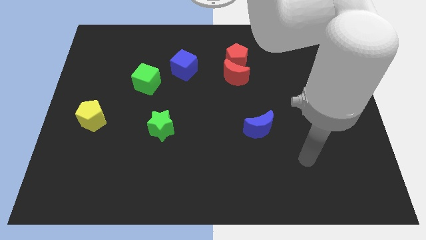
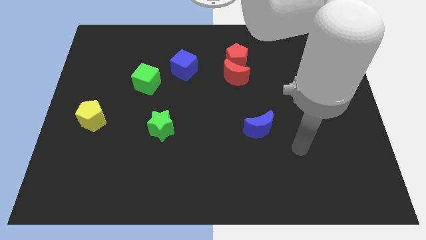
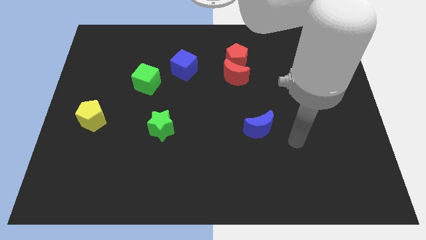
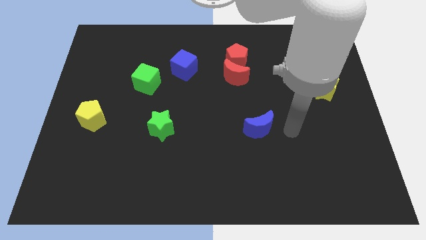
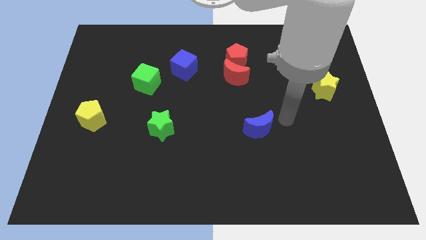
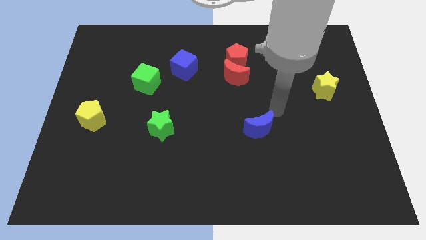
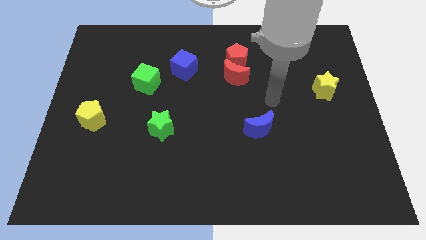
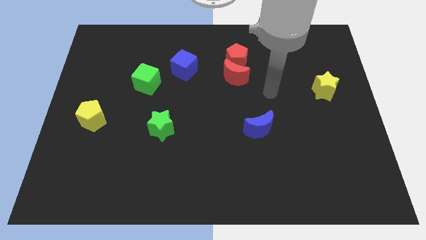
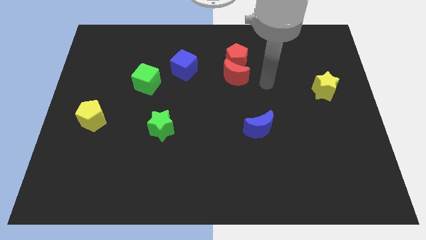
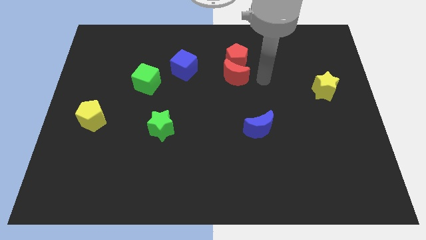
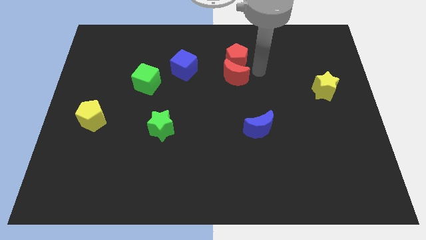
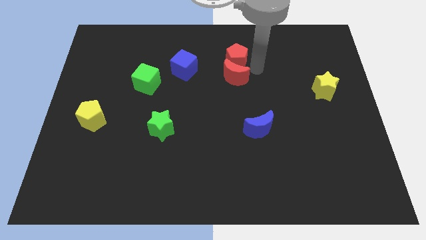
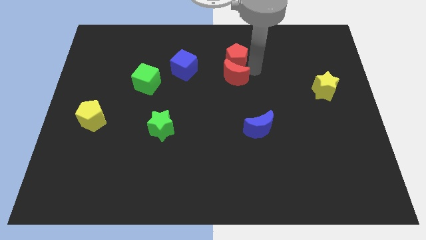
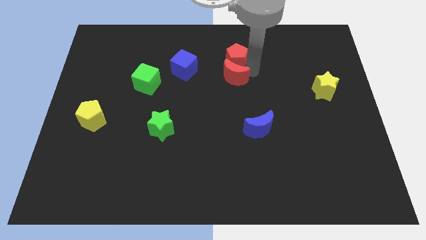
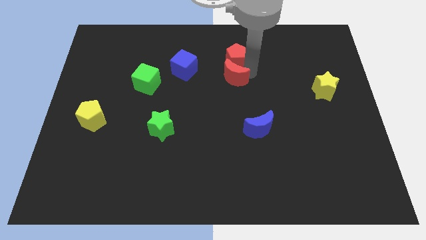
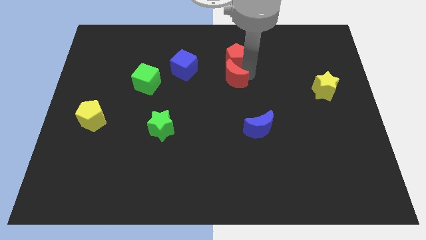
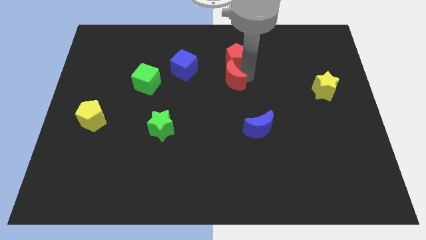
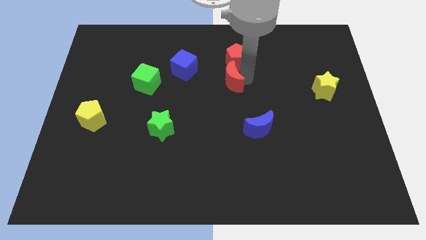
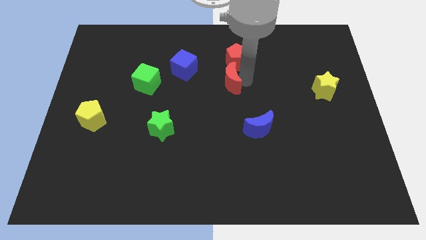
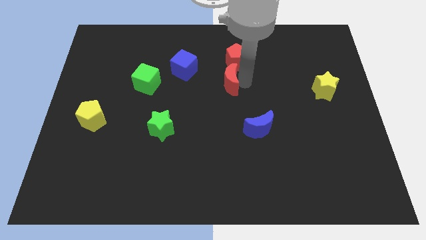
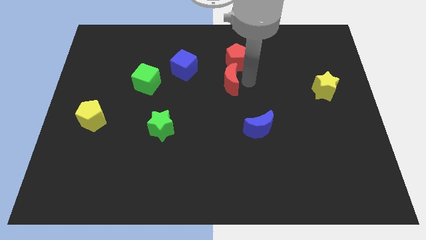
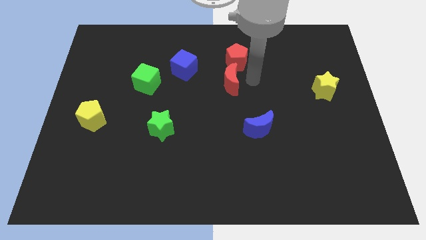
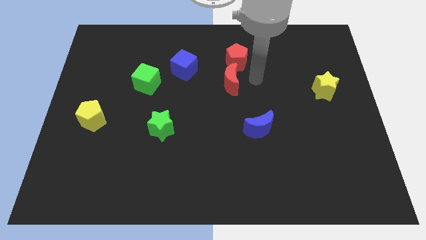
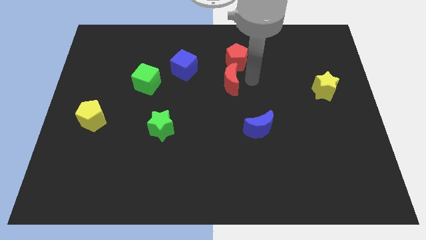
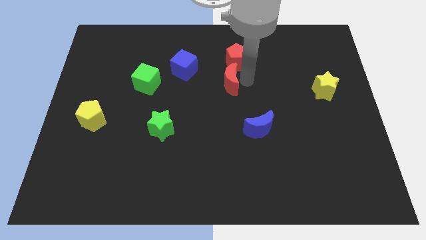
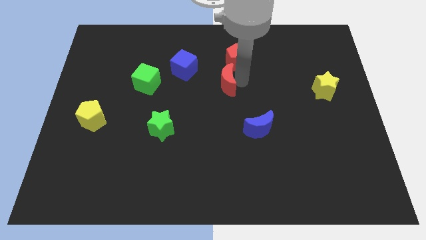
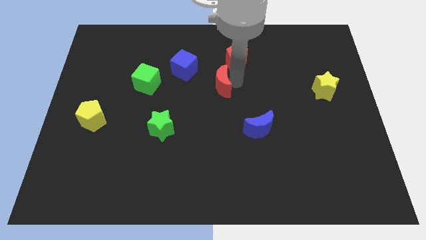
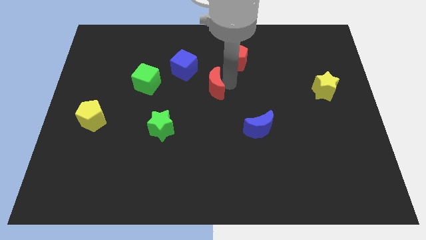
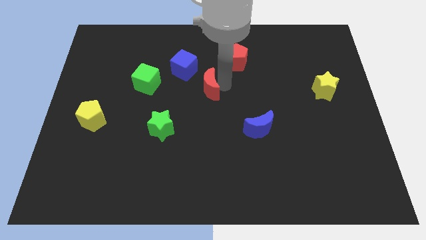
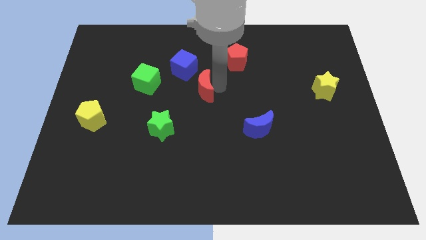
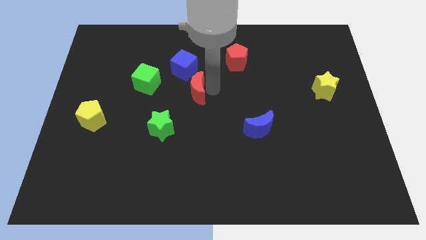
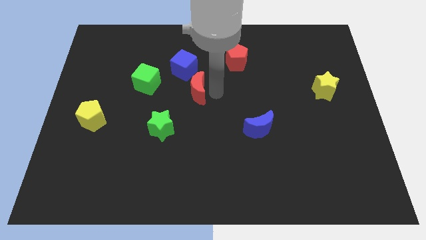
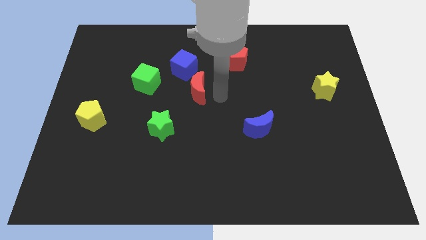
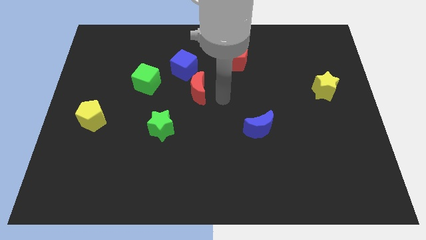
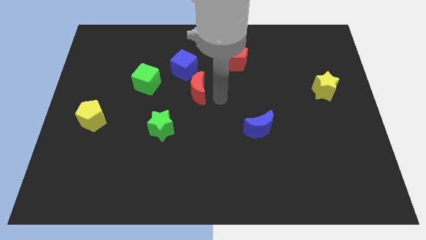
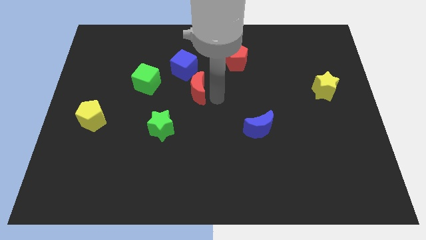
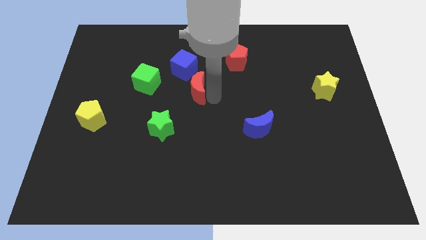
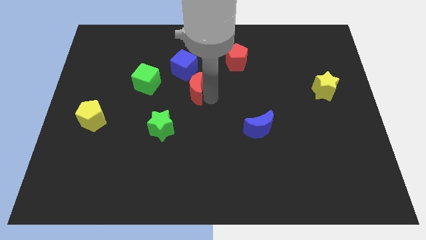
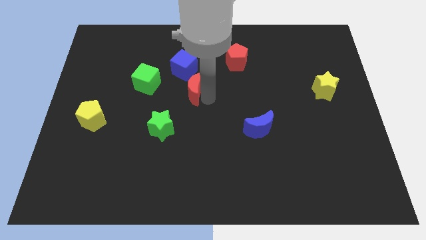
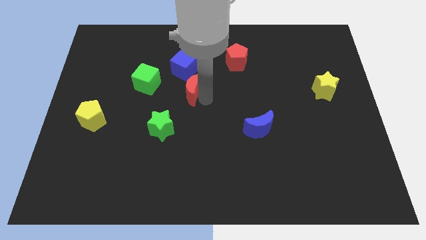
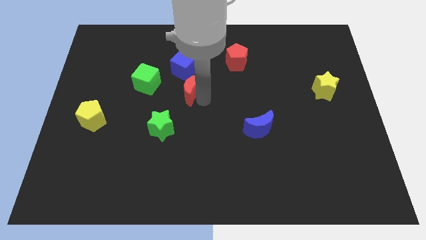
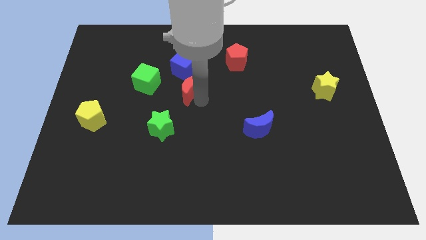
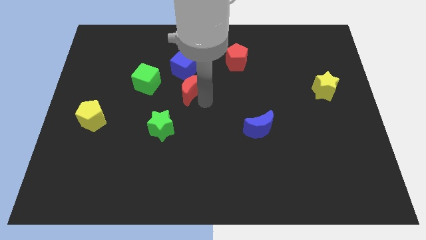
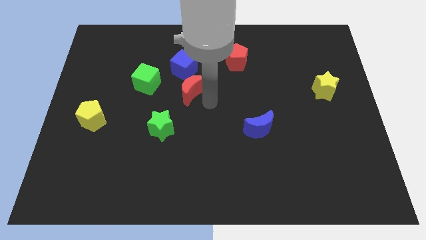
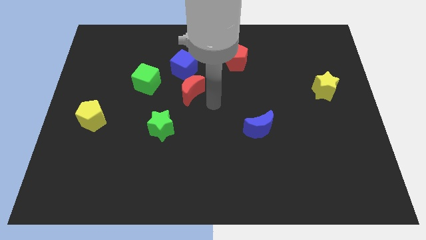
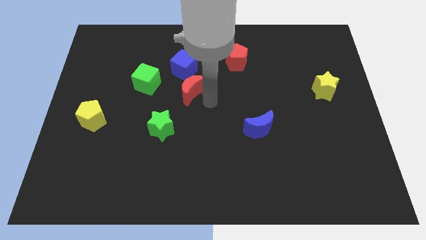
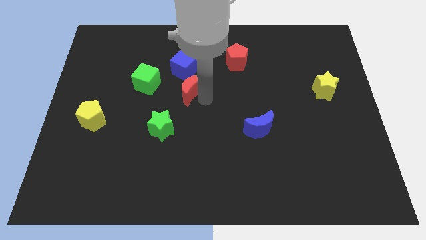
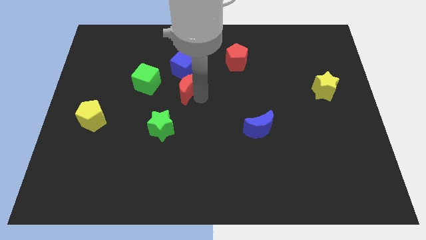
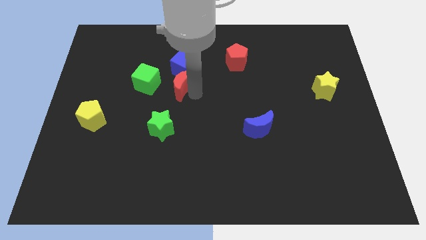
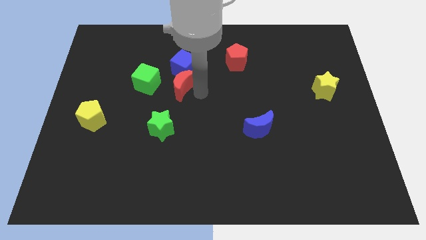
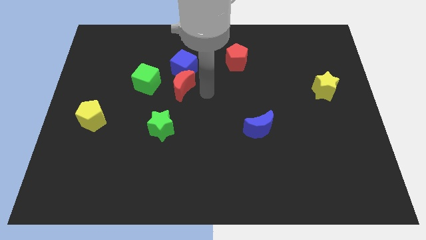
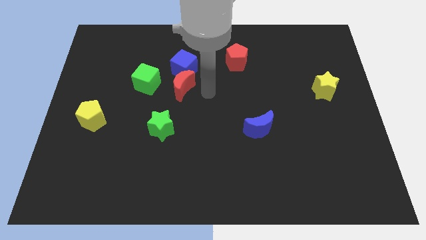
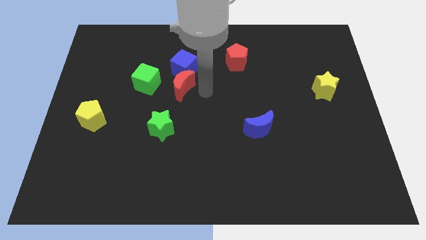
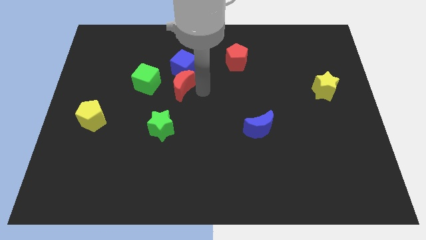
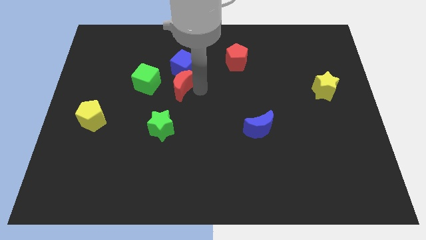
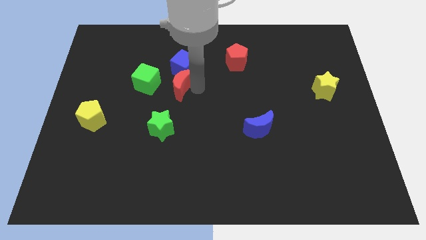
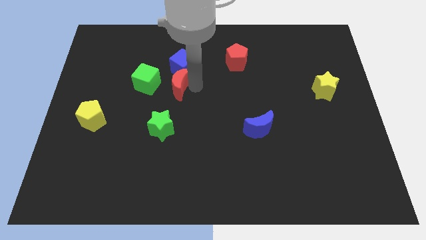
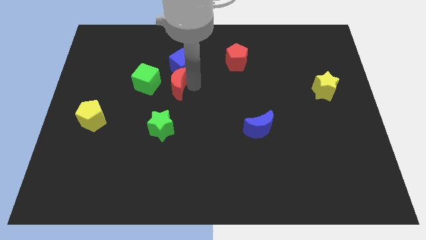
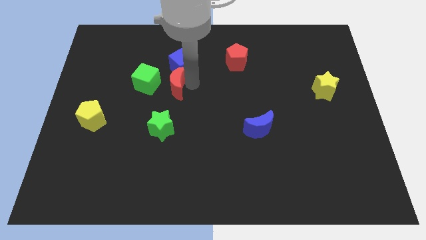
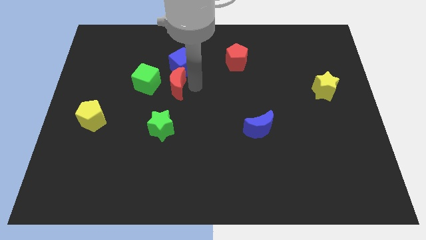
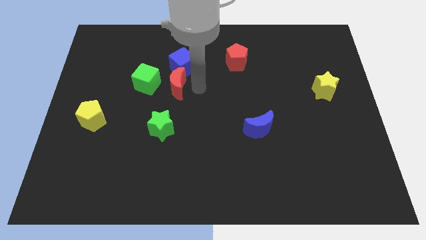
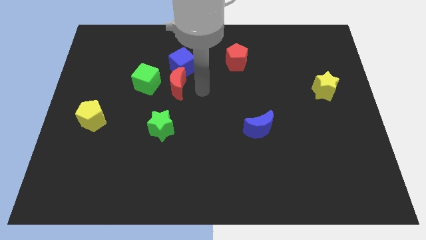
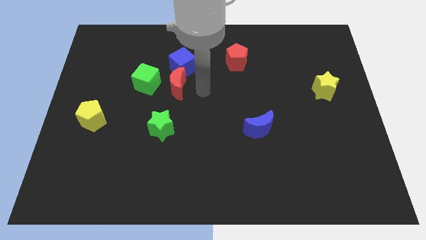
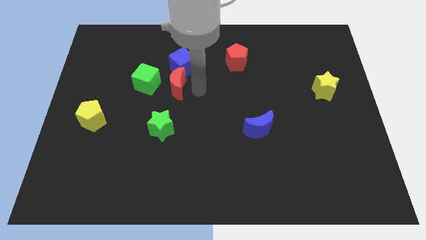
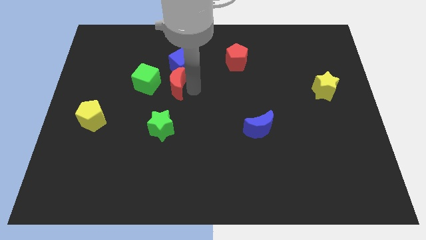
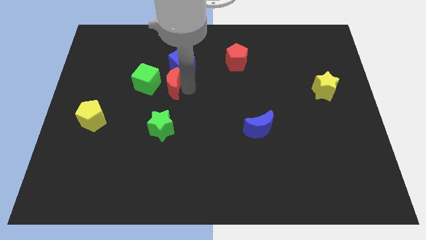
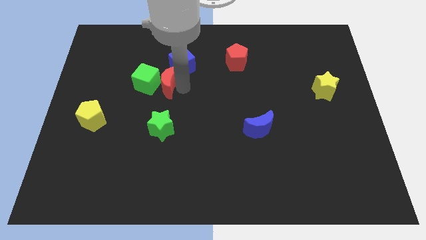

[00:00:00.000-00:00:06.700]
push the red moon next to the green cube
